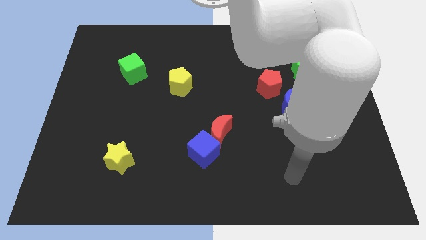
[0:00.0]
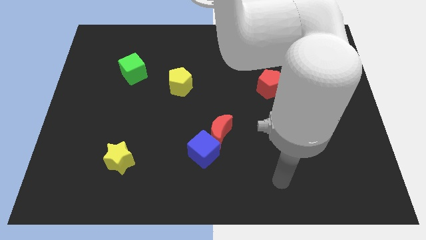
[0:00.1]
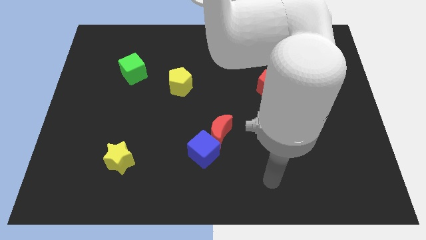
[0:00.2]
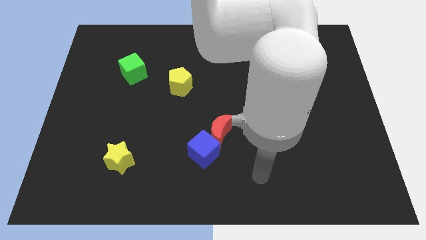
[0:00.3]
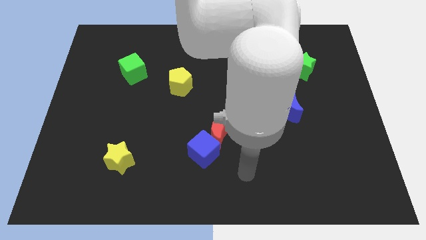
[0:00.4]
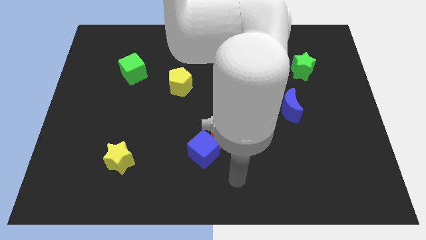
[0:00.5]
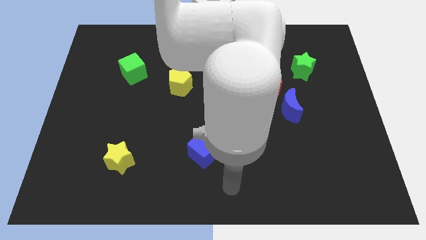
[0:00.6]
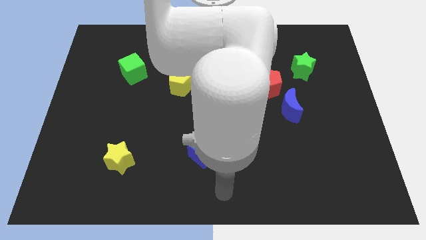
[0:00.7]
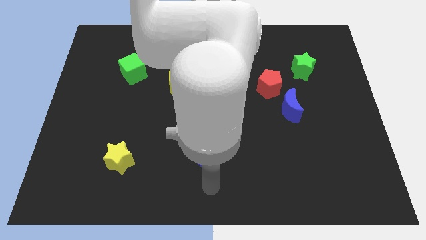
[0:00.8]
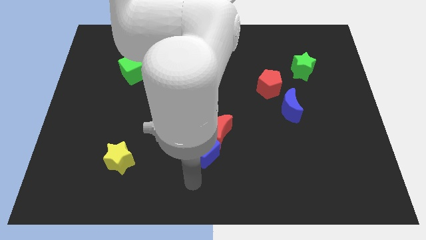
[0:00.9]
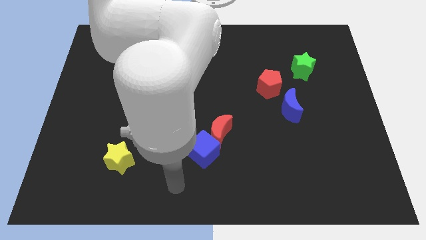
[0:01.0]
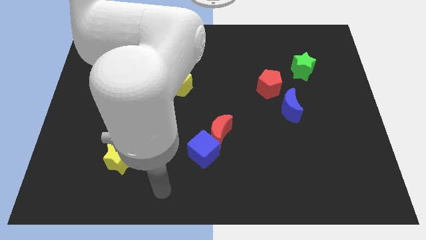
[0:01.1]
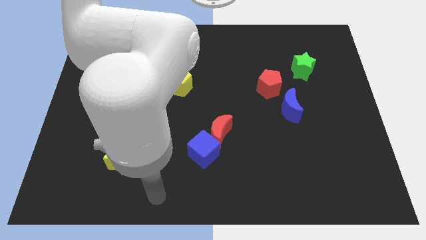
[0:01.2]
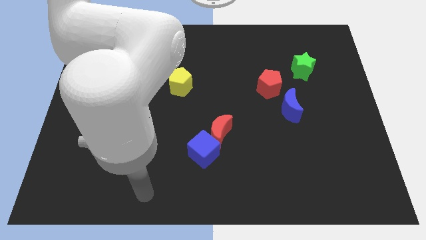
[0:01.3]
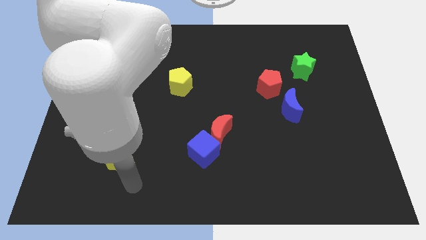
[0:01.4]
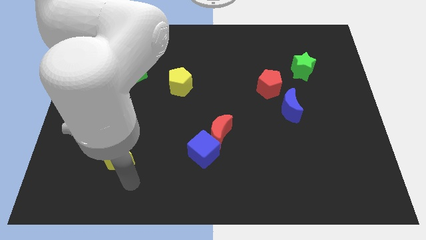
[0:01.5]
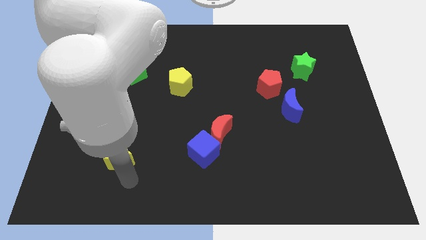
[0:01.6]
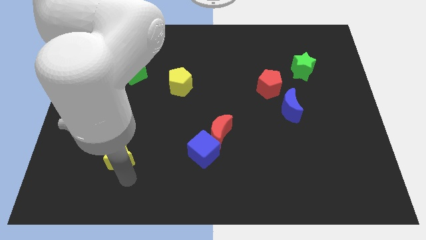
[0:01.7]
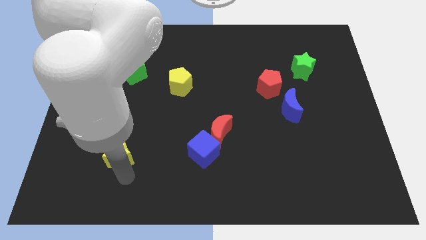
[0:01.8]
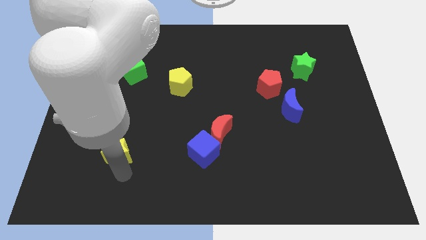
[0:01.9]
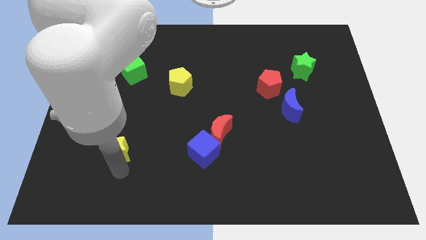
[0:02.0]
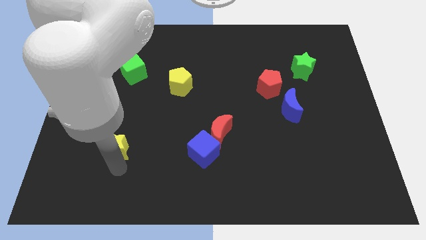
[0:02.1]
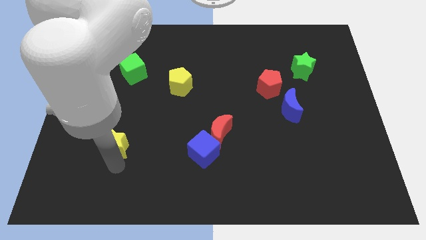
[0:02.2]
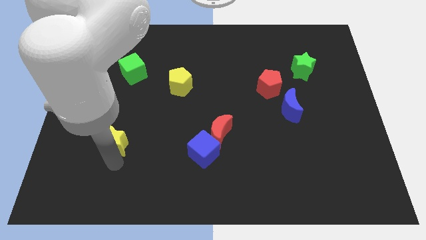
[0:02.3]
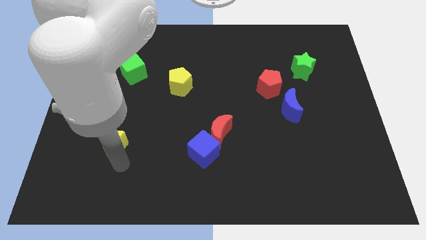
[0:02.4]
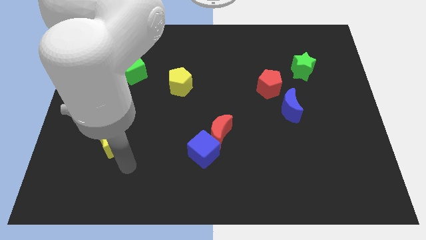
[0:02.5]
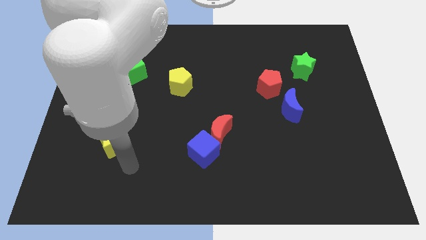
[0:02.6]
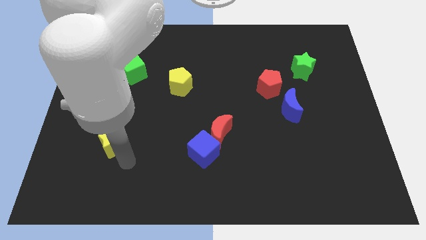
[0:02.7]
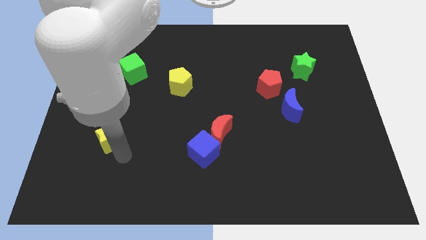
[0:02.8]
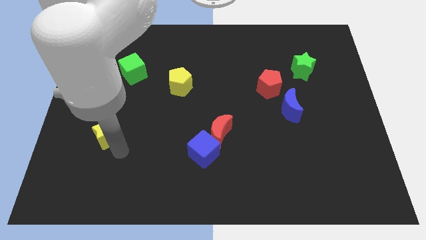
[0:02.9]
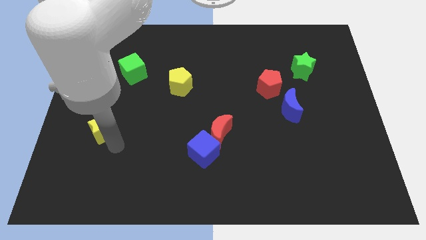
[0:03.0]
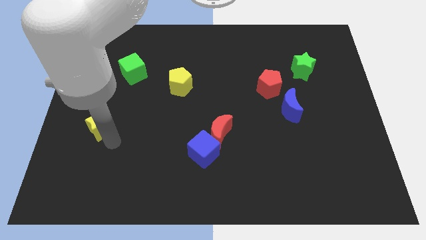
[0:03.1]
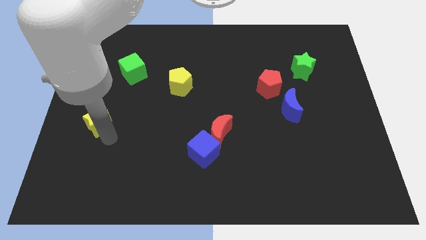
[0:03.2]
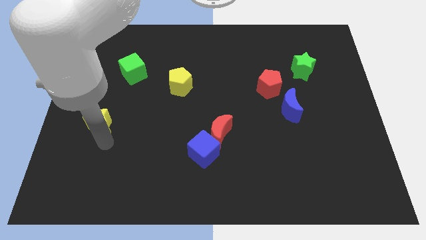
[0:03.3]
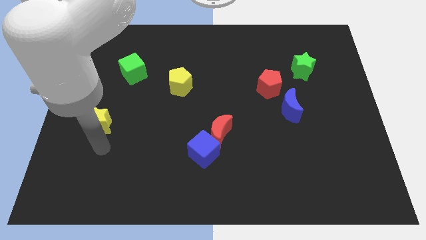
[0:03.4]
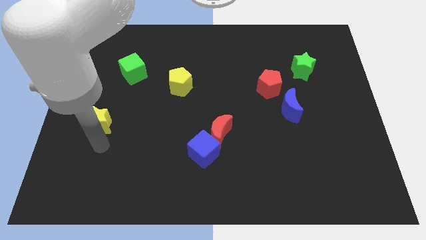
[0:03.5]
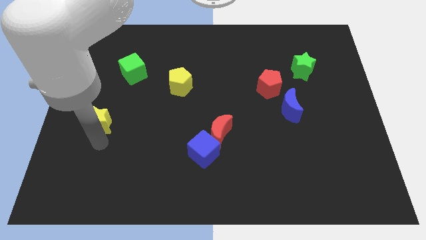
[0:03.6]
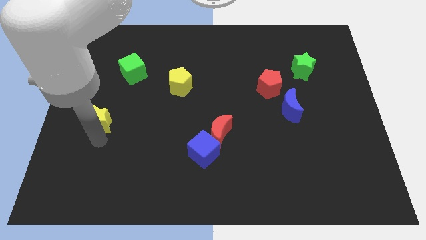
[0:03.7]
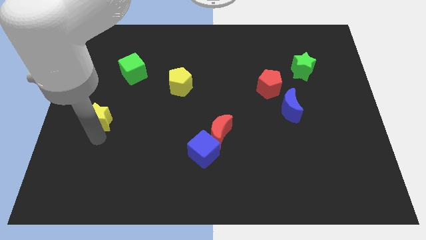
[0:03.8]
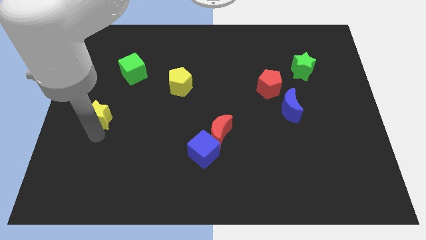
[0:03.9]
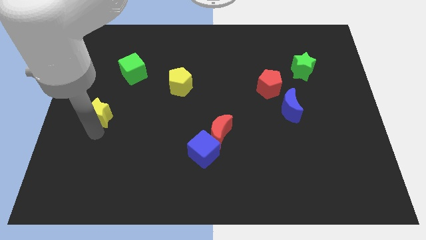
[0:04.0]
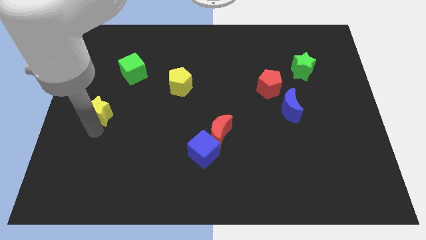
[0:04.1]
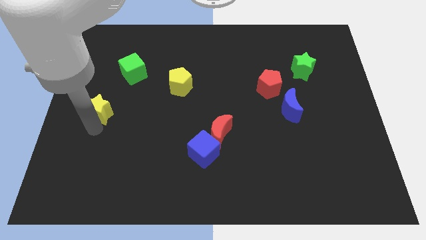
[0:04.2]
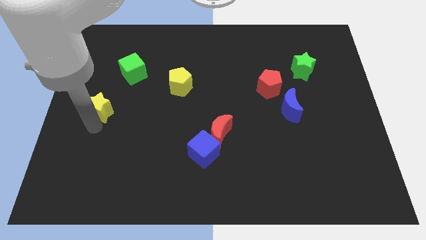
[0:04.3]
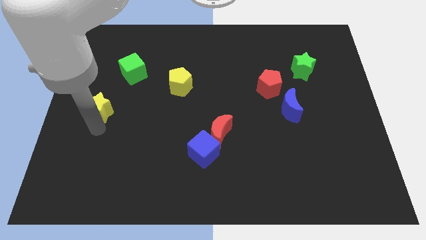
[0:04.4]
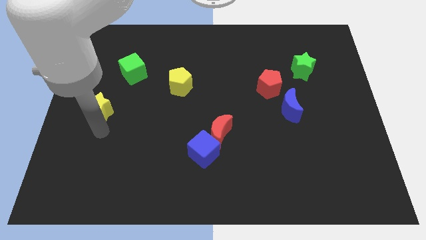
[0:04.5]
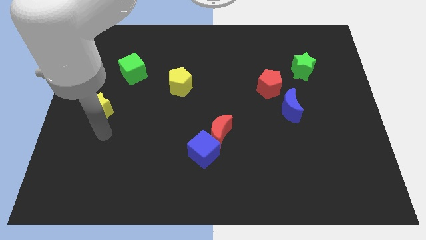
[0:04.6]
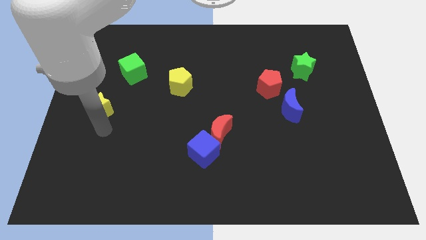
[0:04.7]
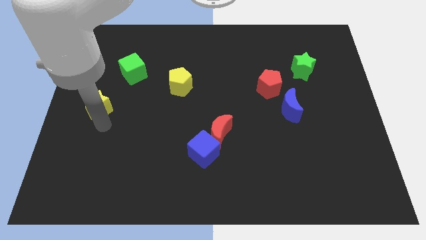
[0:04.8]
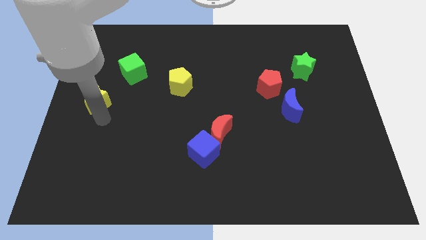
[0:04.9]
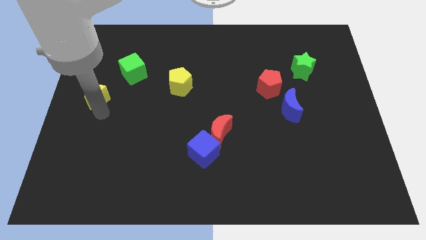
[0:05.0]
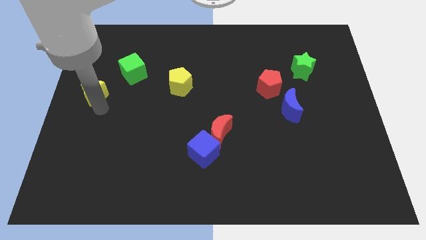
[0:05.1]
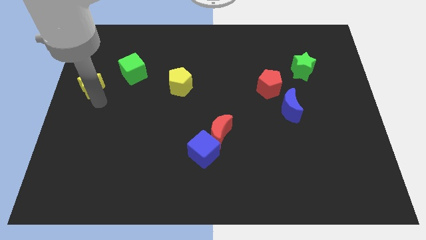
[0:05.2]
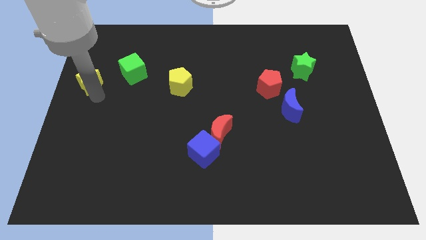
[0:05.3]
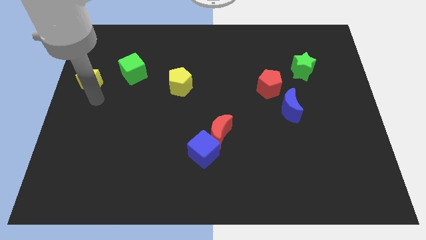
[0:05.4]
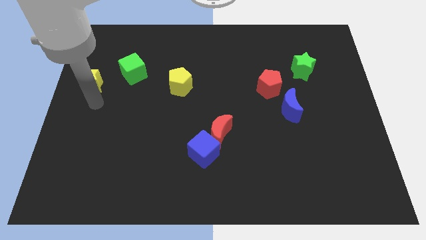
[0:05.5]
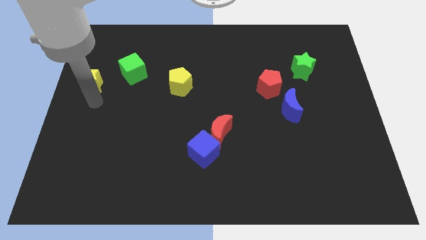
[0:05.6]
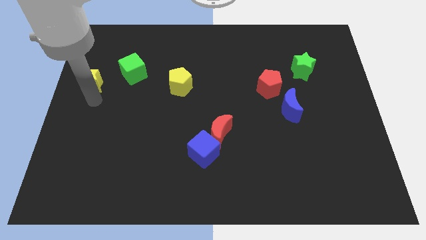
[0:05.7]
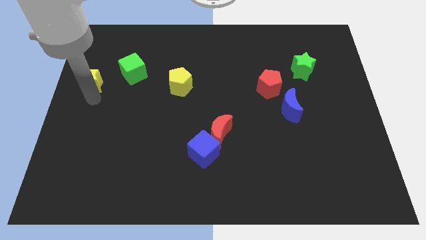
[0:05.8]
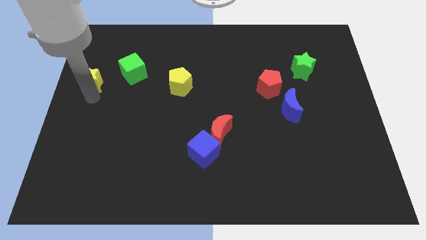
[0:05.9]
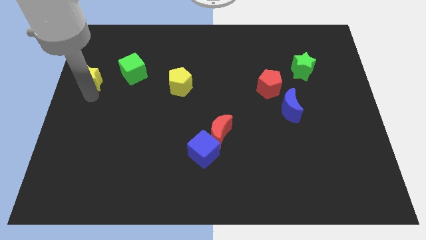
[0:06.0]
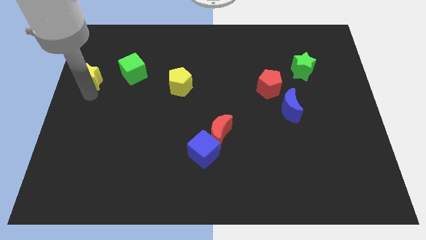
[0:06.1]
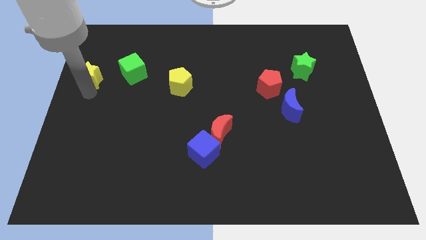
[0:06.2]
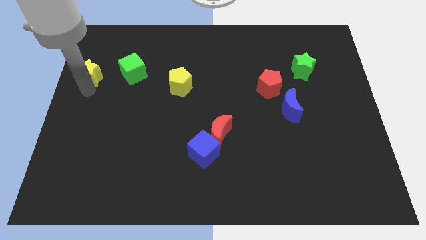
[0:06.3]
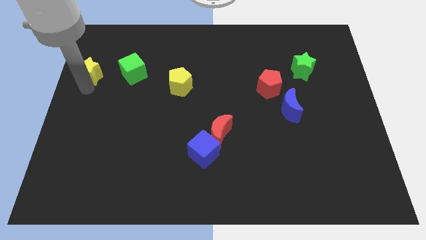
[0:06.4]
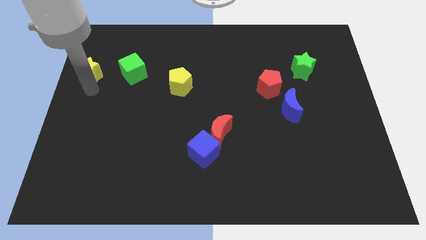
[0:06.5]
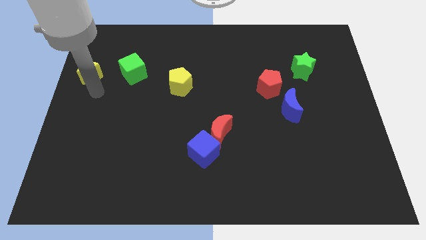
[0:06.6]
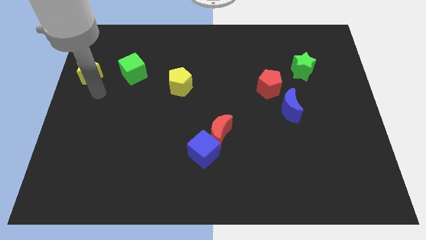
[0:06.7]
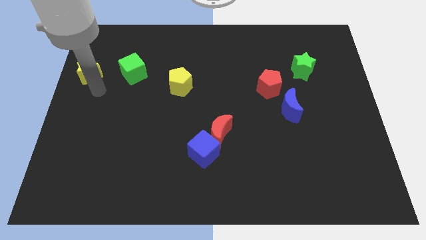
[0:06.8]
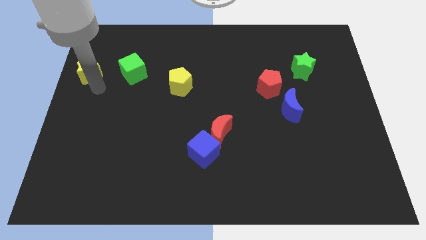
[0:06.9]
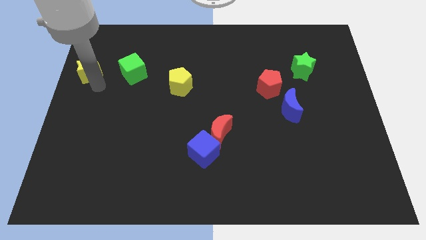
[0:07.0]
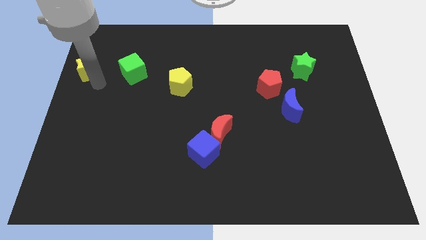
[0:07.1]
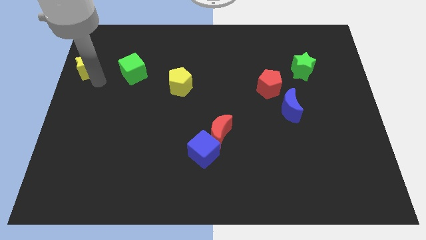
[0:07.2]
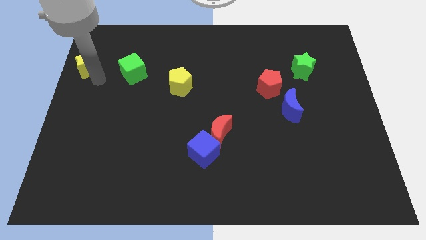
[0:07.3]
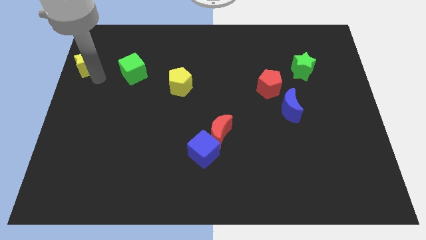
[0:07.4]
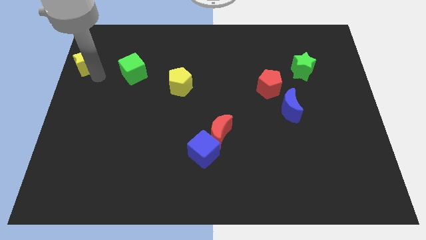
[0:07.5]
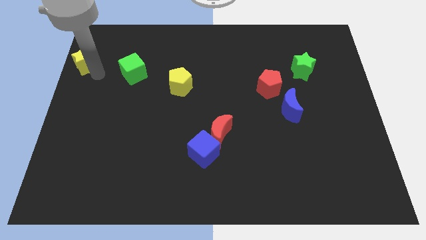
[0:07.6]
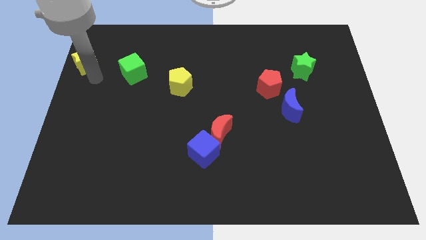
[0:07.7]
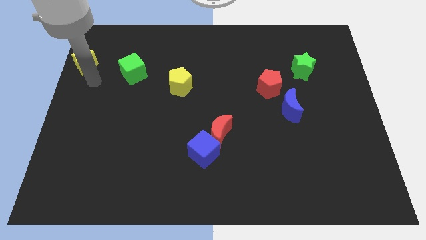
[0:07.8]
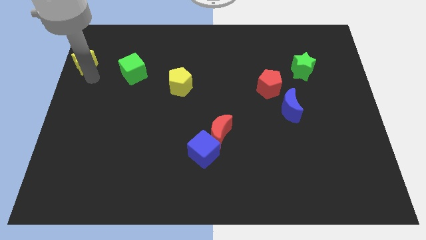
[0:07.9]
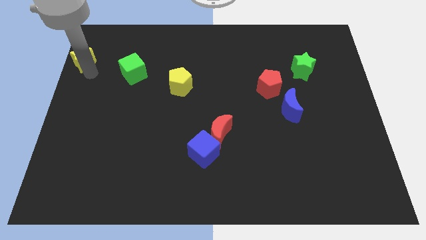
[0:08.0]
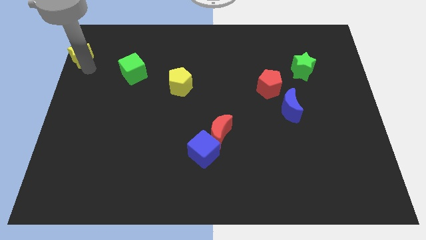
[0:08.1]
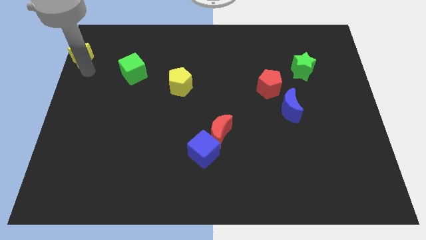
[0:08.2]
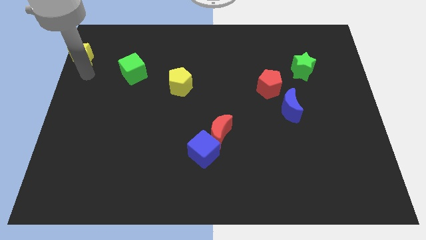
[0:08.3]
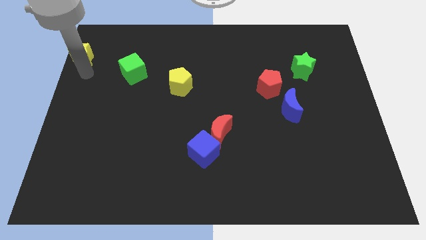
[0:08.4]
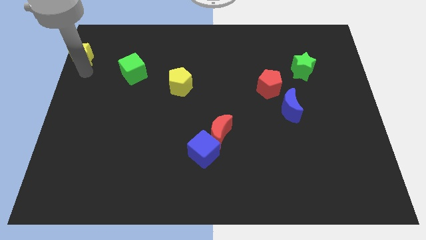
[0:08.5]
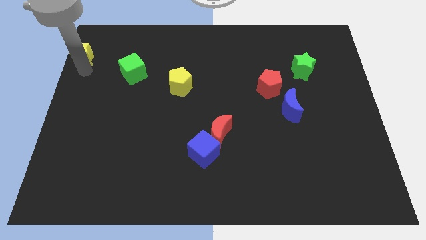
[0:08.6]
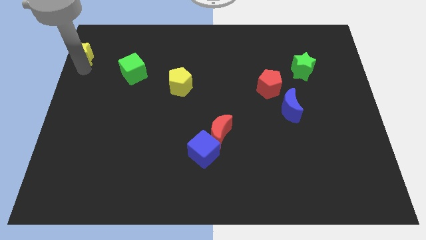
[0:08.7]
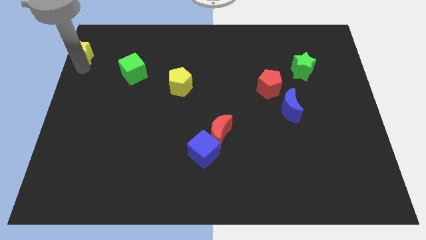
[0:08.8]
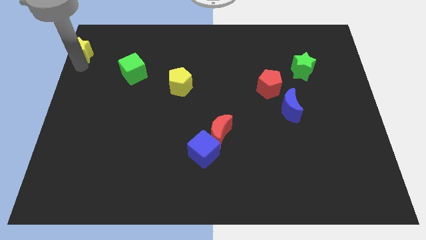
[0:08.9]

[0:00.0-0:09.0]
put the yellow star to the top left
